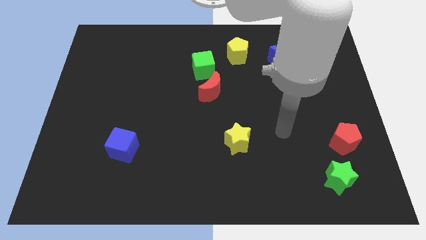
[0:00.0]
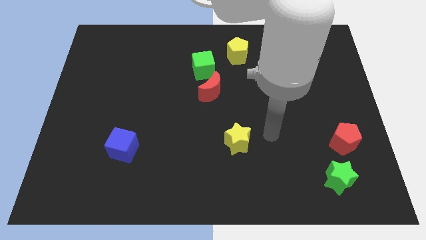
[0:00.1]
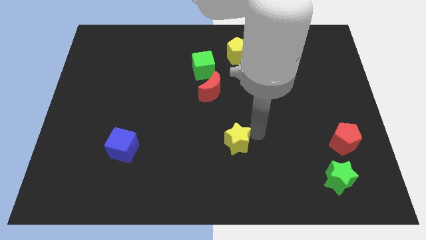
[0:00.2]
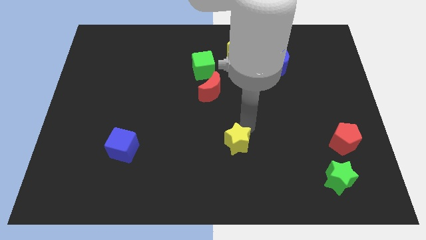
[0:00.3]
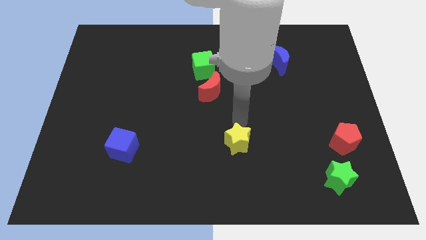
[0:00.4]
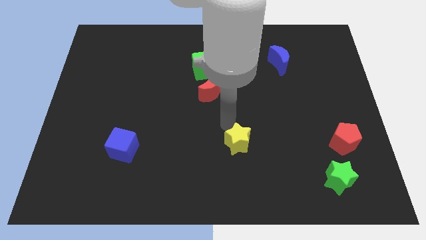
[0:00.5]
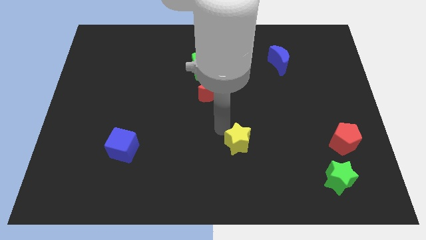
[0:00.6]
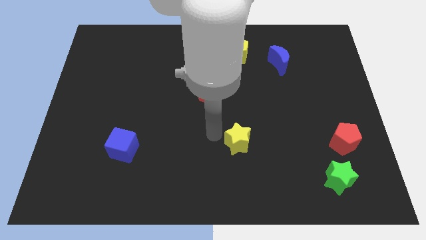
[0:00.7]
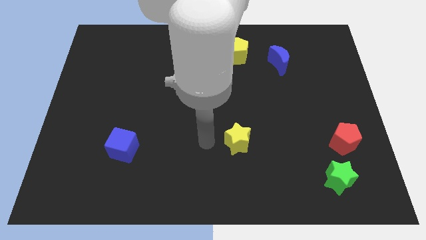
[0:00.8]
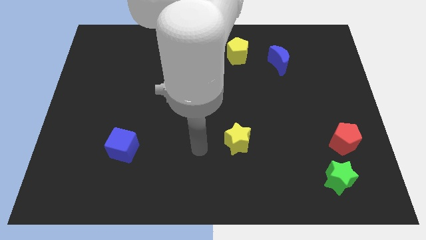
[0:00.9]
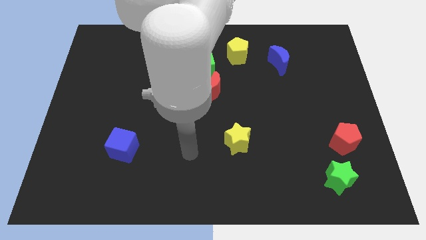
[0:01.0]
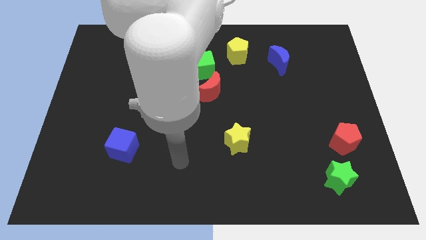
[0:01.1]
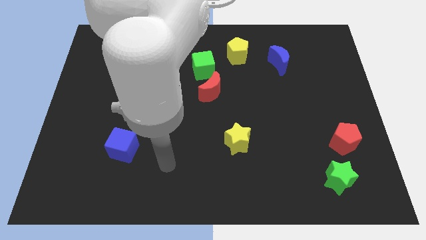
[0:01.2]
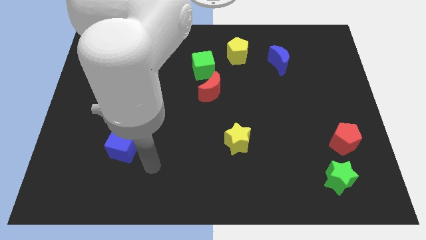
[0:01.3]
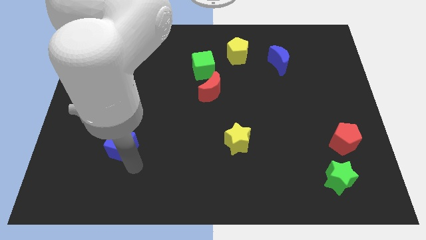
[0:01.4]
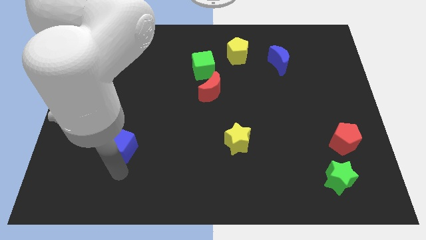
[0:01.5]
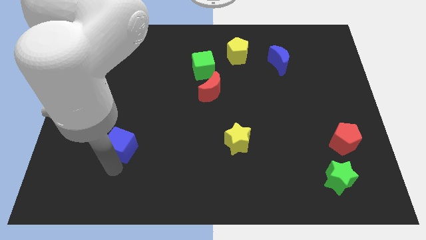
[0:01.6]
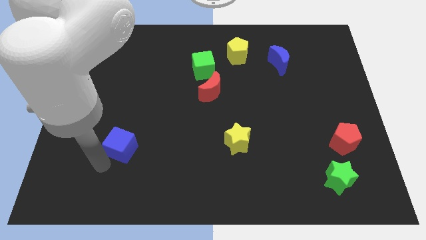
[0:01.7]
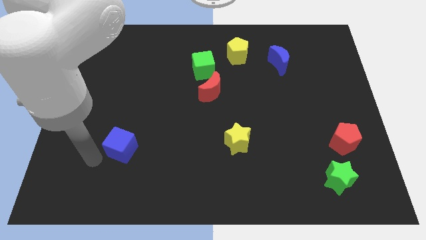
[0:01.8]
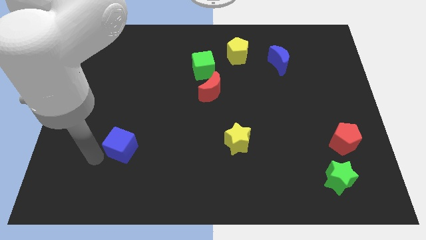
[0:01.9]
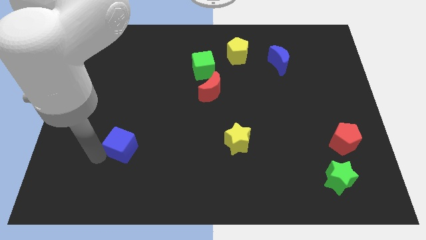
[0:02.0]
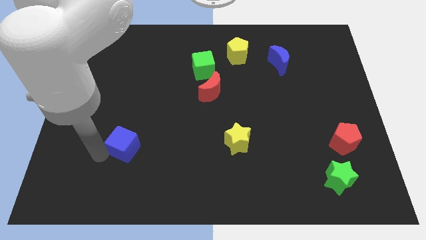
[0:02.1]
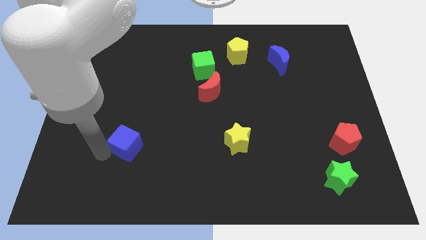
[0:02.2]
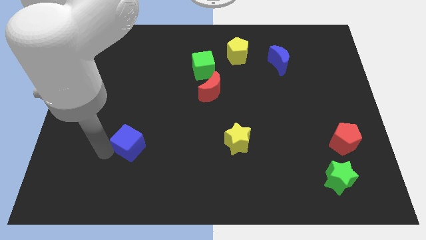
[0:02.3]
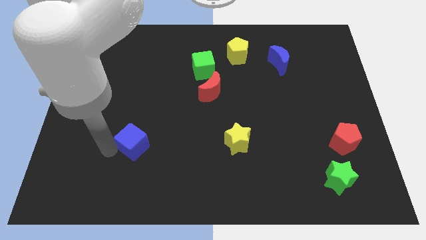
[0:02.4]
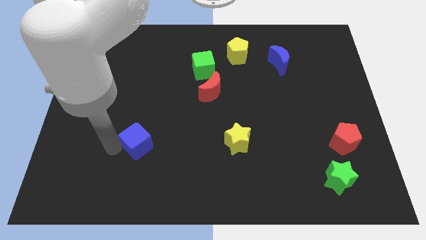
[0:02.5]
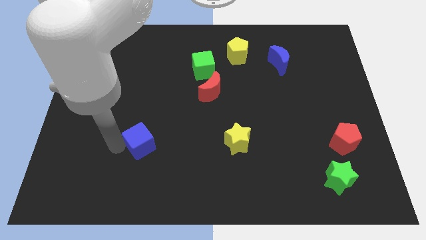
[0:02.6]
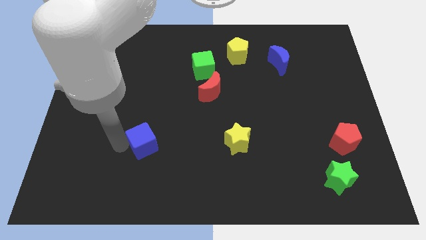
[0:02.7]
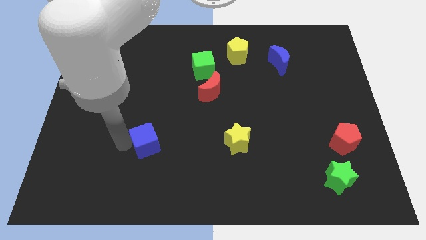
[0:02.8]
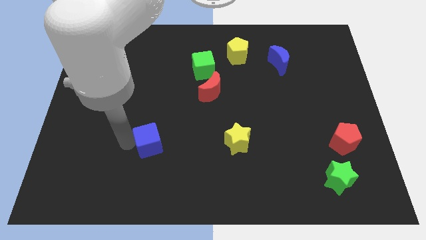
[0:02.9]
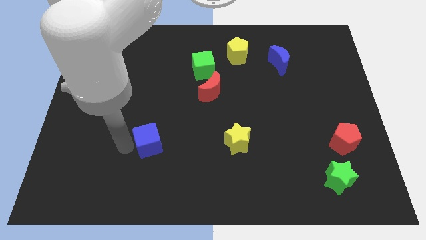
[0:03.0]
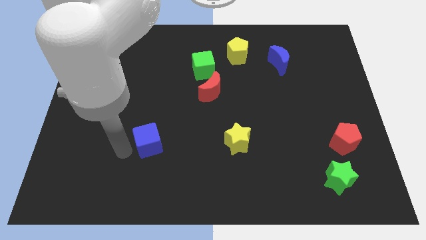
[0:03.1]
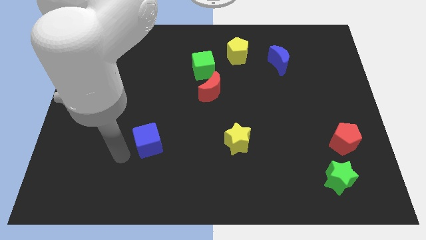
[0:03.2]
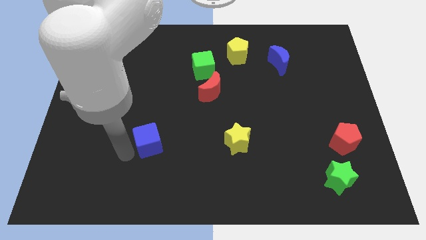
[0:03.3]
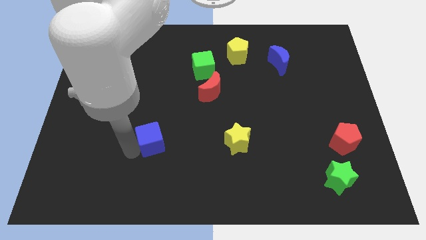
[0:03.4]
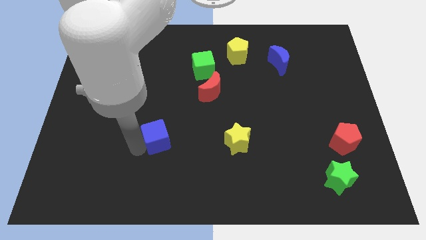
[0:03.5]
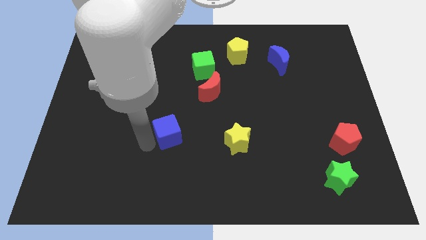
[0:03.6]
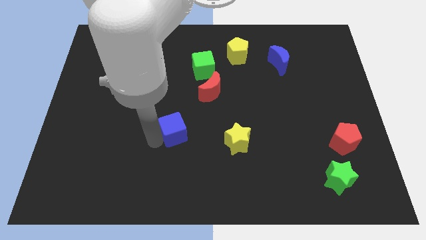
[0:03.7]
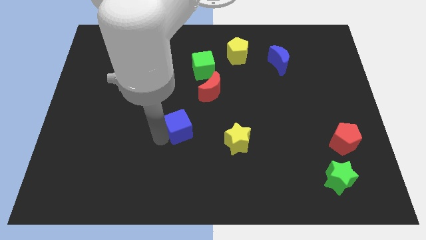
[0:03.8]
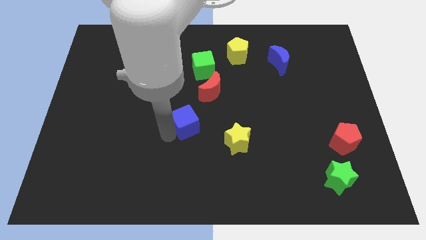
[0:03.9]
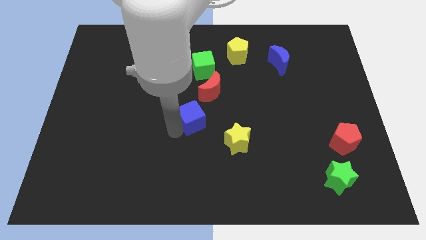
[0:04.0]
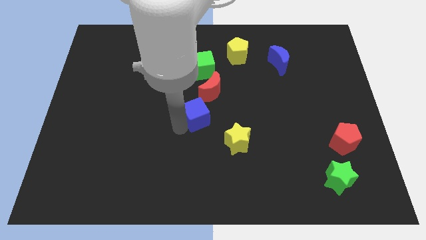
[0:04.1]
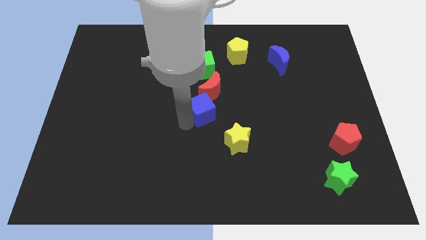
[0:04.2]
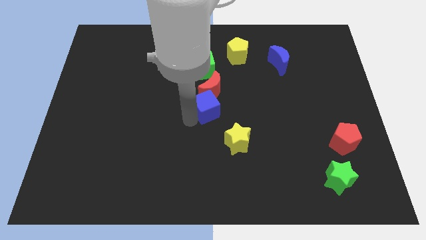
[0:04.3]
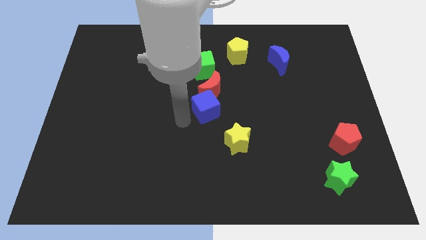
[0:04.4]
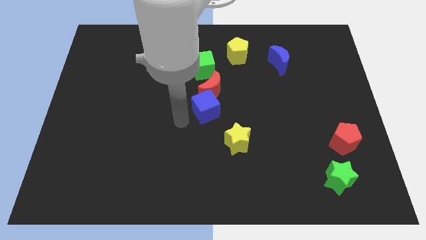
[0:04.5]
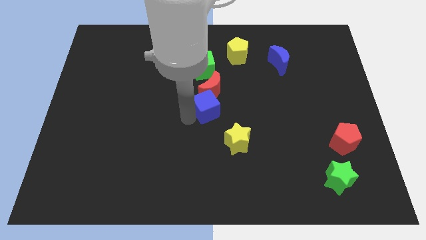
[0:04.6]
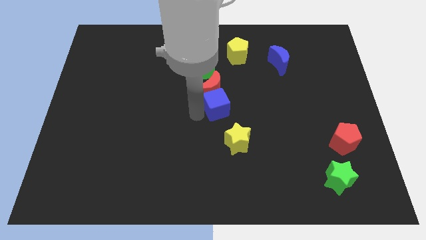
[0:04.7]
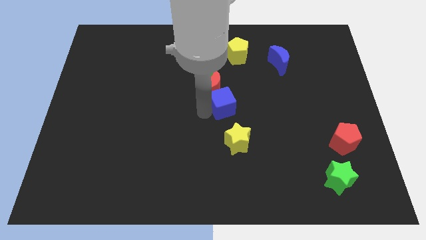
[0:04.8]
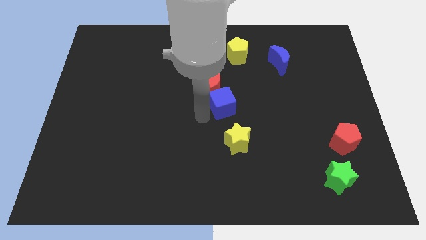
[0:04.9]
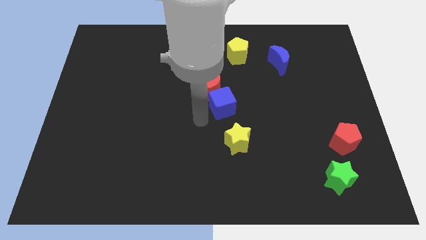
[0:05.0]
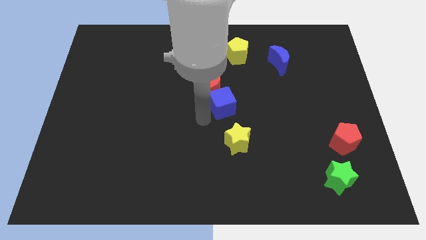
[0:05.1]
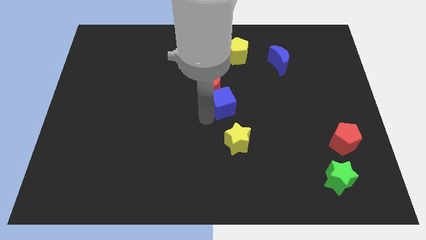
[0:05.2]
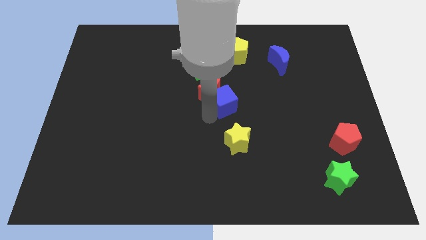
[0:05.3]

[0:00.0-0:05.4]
move the blue cube just right of the red moon

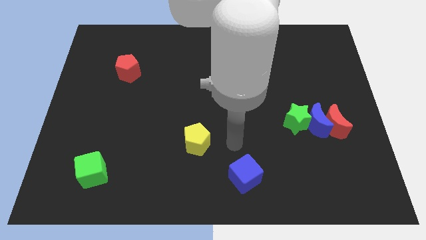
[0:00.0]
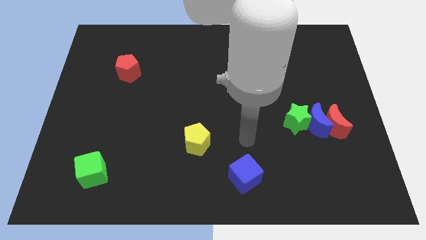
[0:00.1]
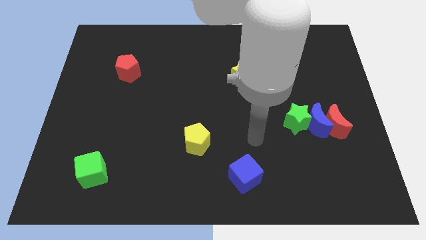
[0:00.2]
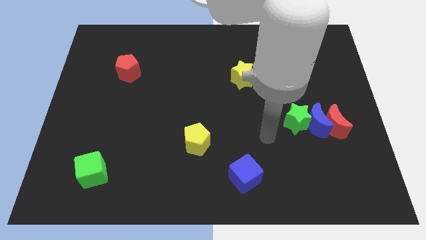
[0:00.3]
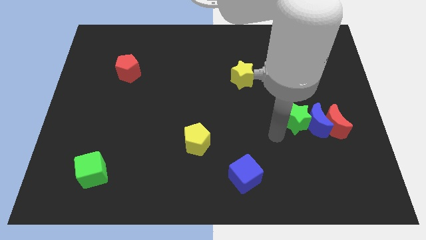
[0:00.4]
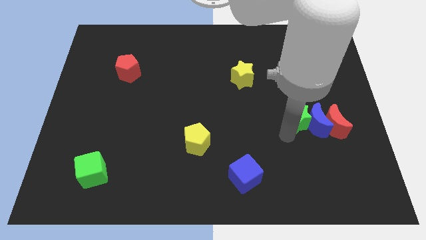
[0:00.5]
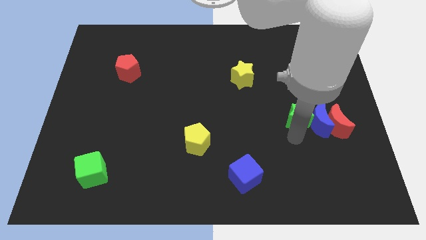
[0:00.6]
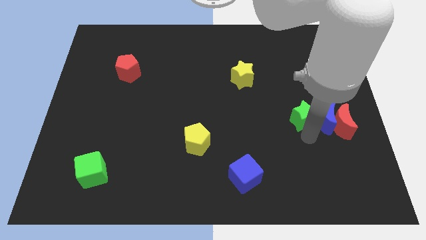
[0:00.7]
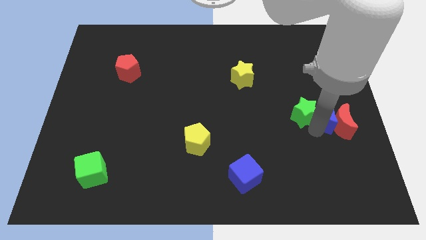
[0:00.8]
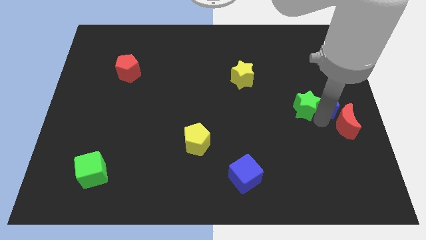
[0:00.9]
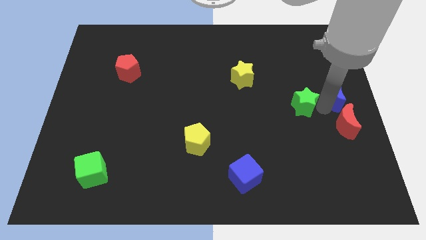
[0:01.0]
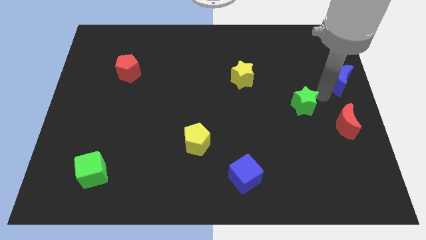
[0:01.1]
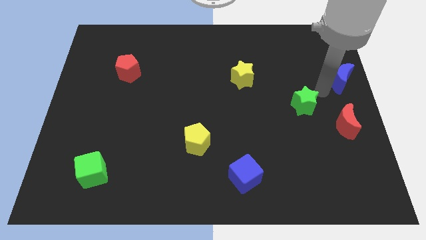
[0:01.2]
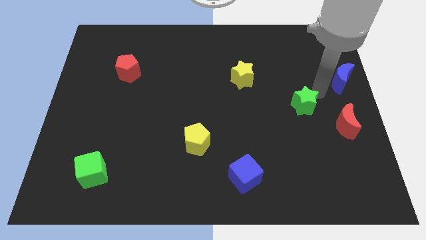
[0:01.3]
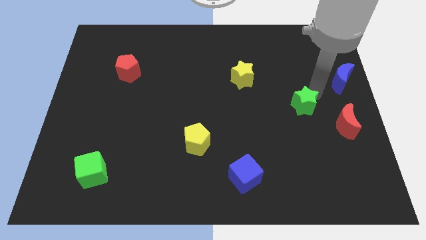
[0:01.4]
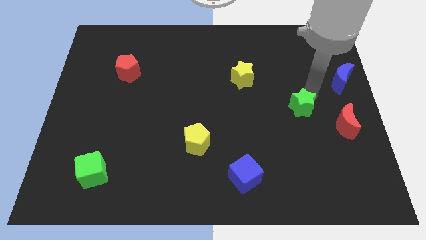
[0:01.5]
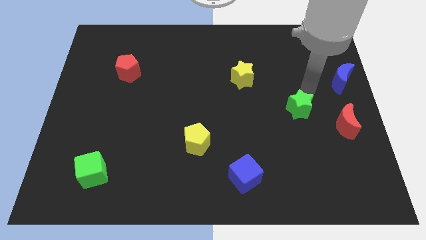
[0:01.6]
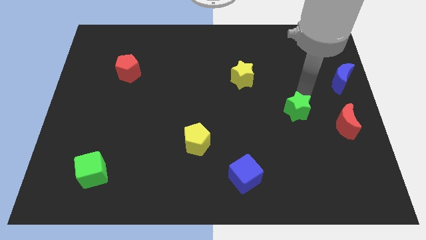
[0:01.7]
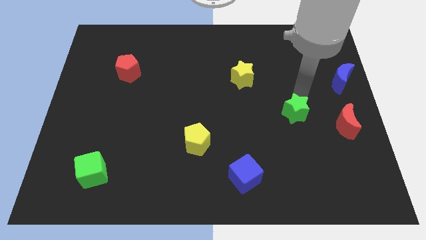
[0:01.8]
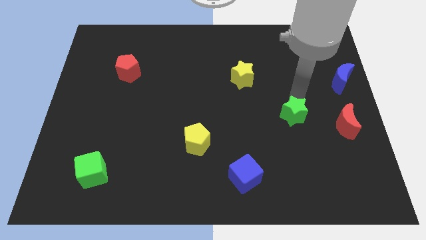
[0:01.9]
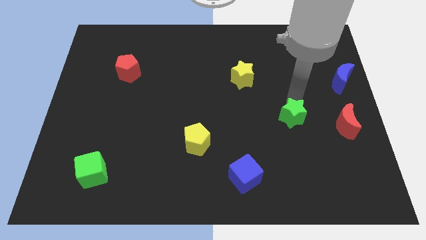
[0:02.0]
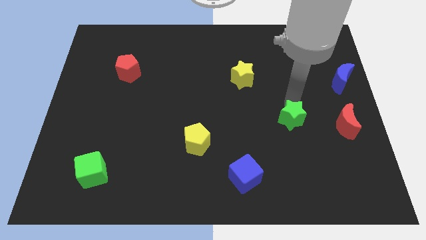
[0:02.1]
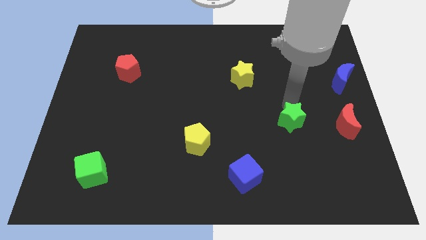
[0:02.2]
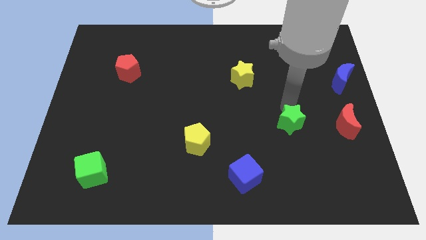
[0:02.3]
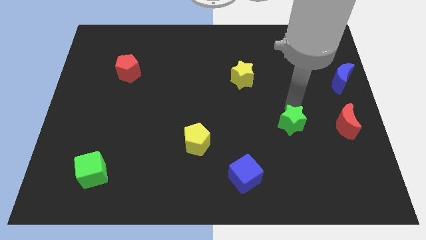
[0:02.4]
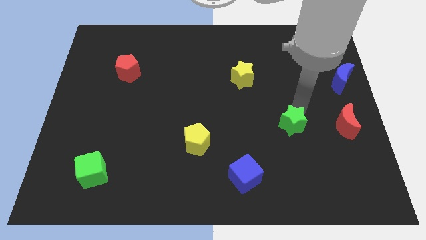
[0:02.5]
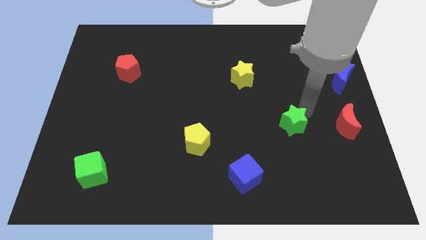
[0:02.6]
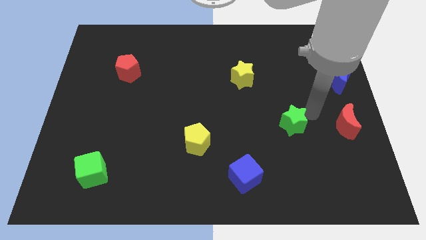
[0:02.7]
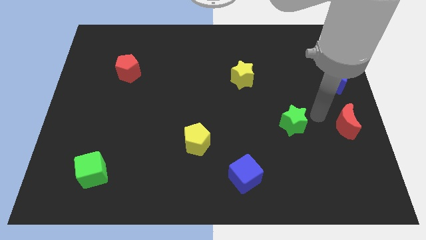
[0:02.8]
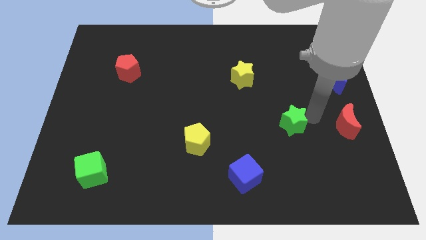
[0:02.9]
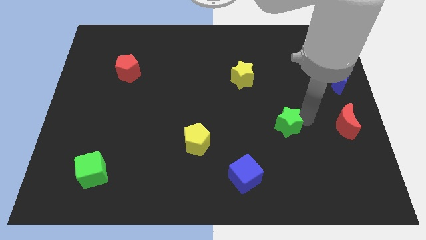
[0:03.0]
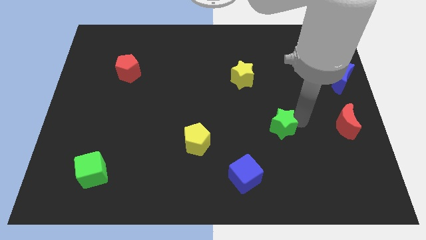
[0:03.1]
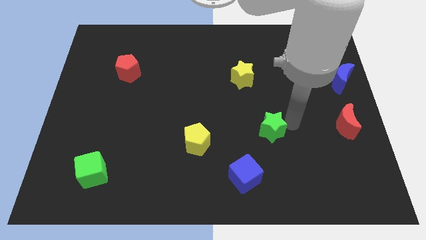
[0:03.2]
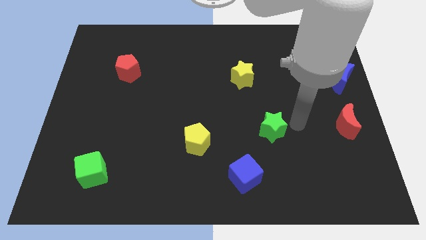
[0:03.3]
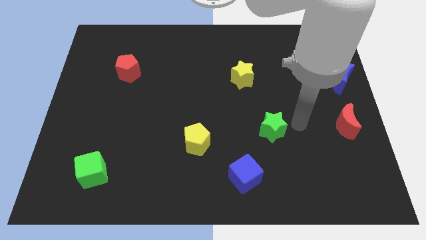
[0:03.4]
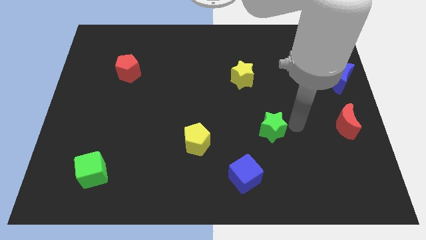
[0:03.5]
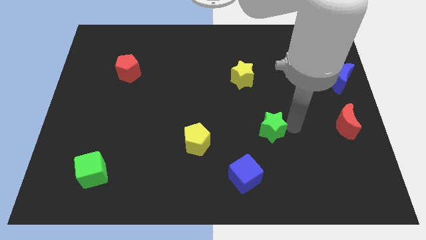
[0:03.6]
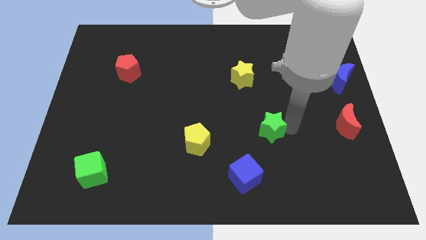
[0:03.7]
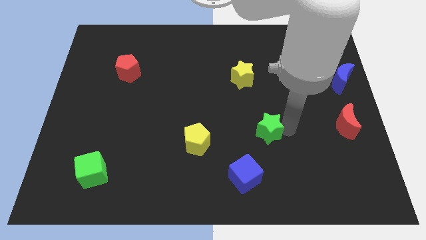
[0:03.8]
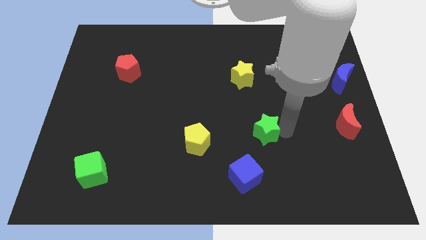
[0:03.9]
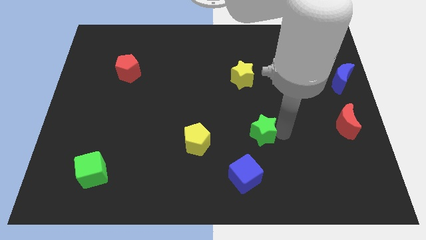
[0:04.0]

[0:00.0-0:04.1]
slide the green star to the top of the blue cube
